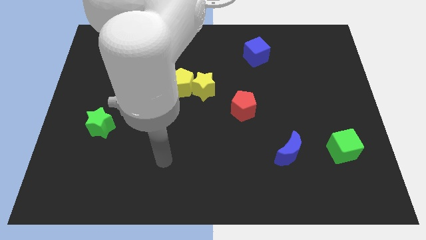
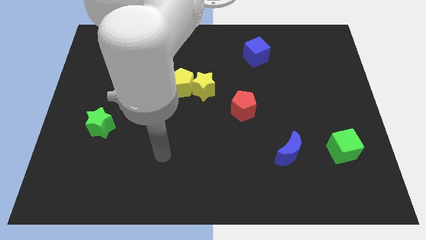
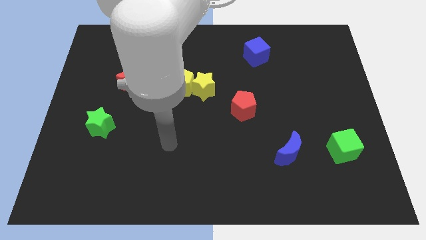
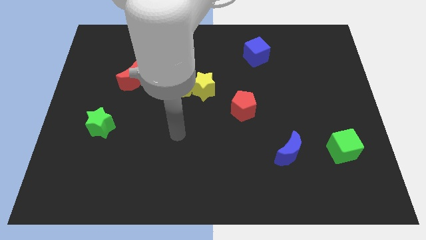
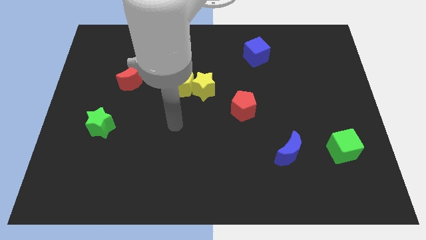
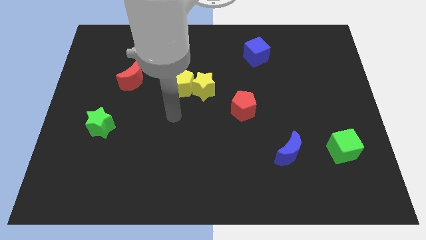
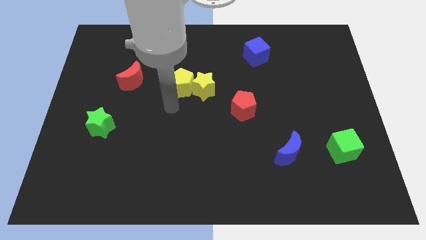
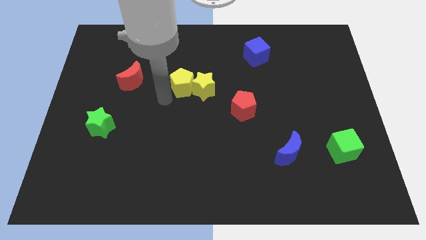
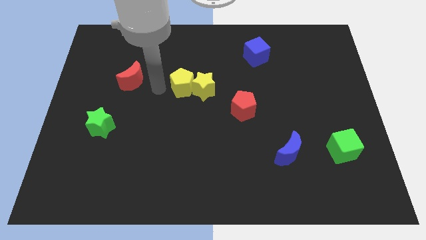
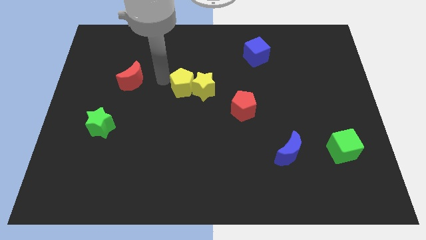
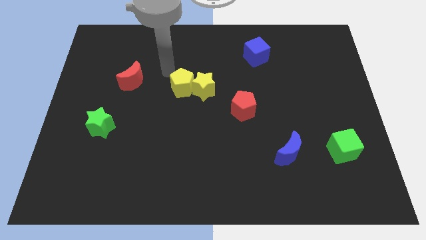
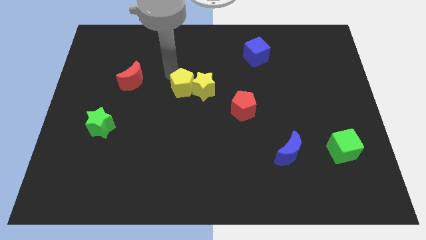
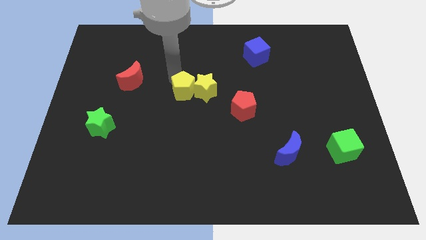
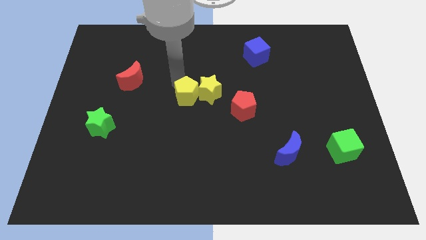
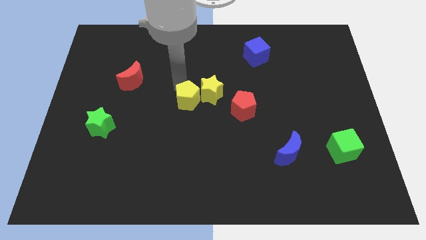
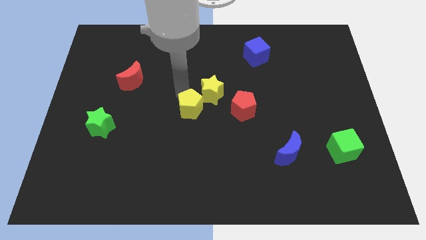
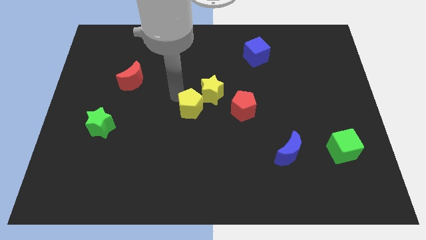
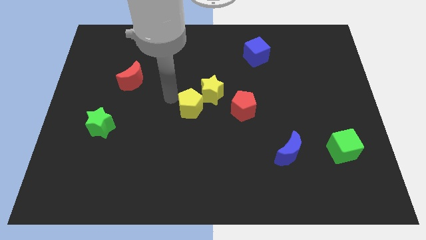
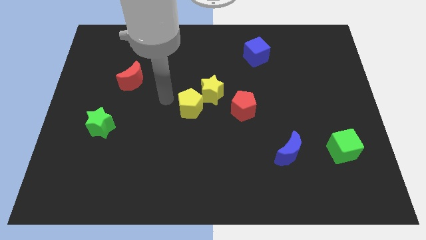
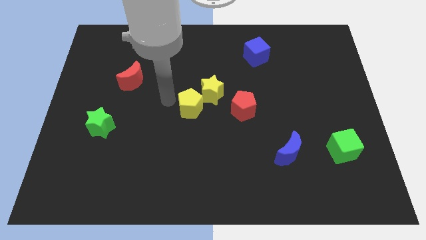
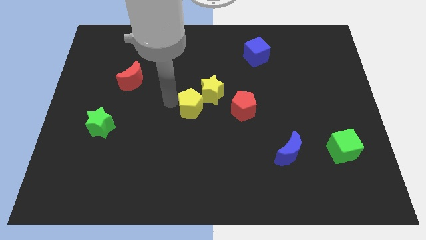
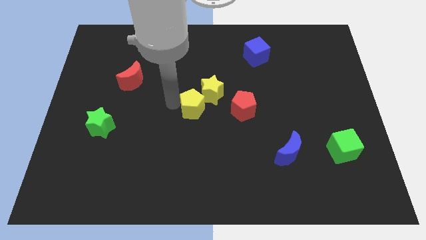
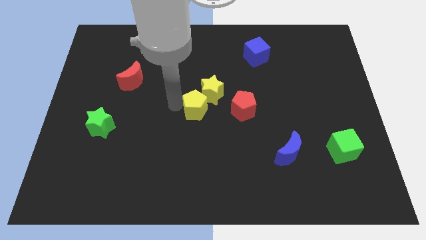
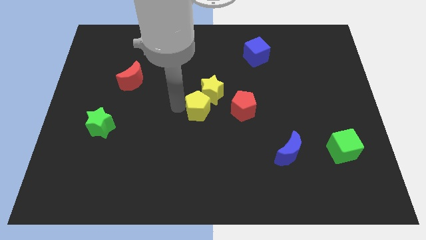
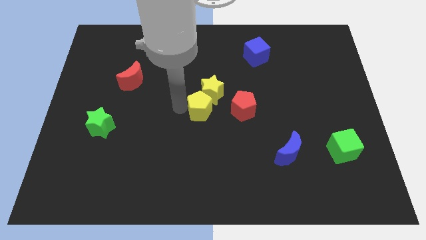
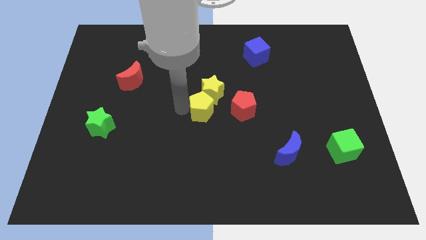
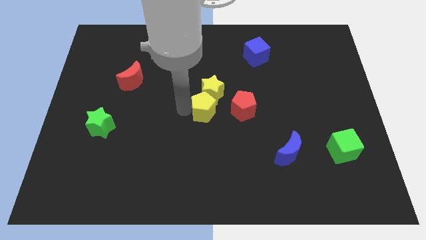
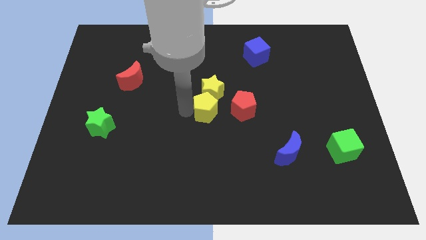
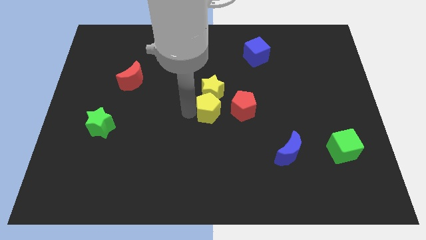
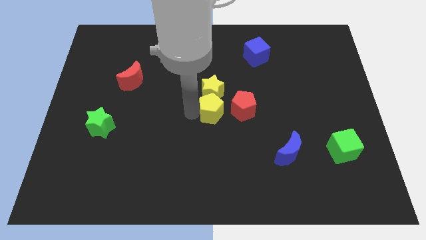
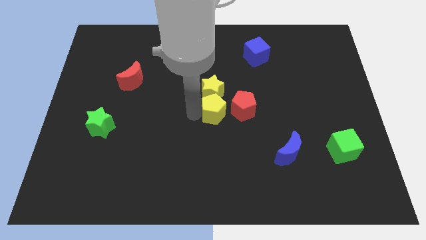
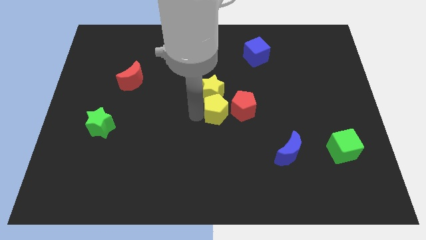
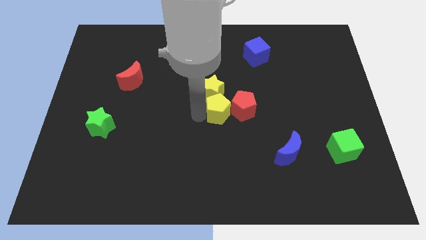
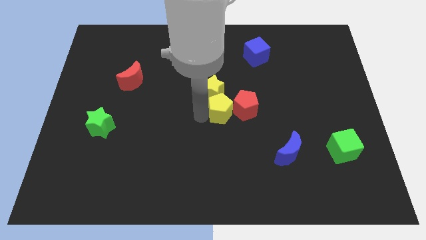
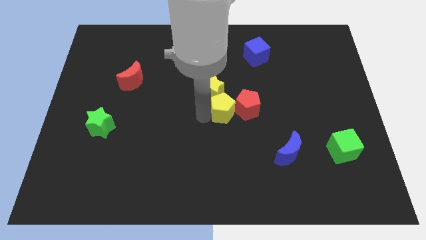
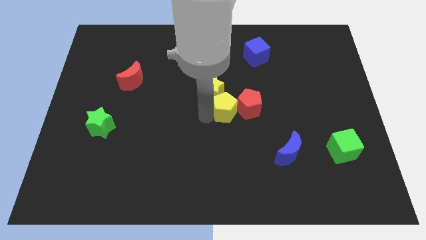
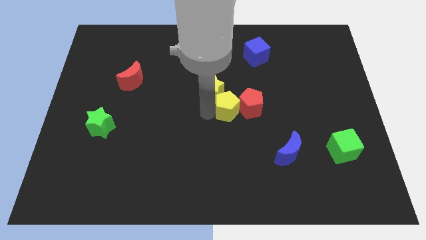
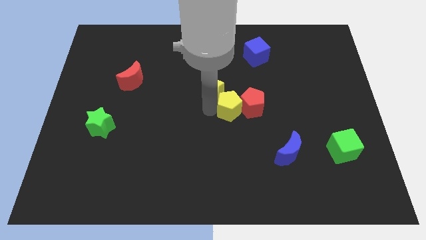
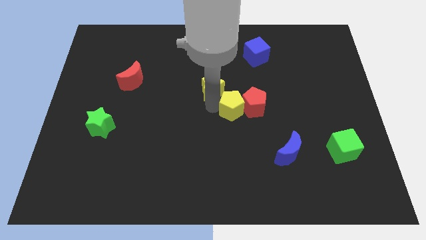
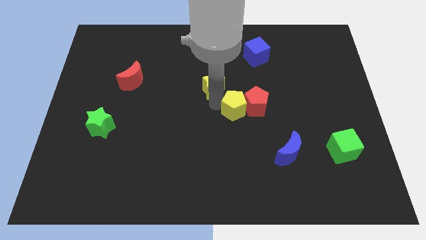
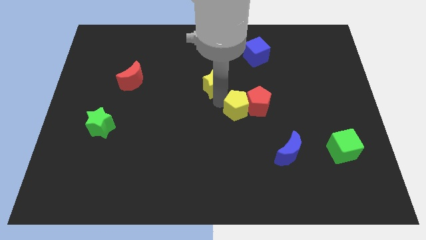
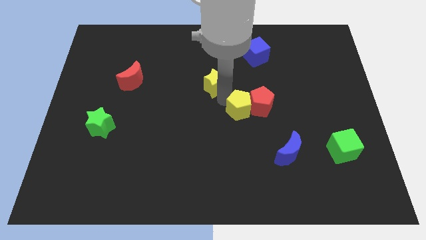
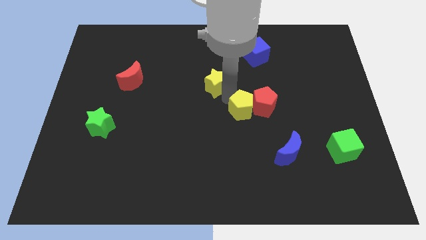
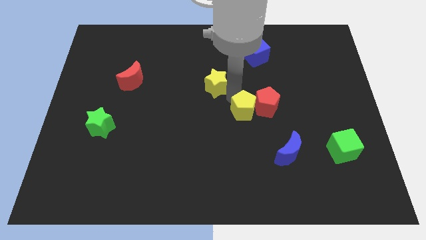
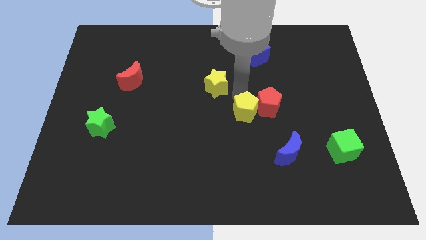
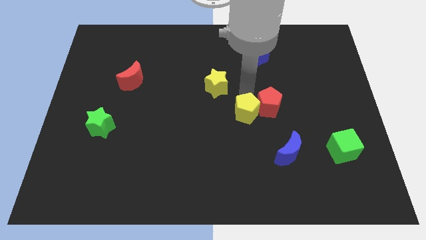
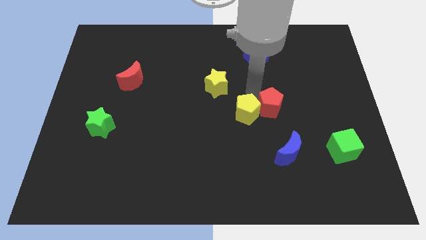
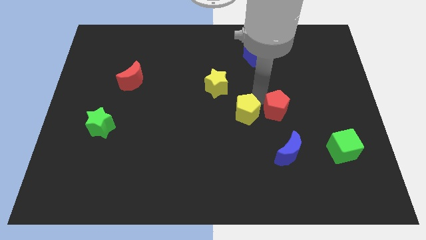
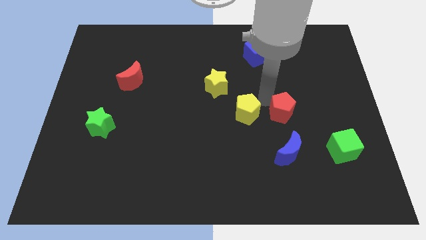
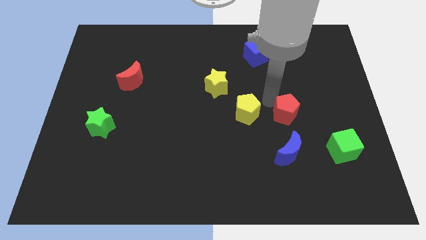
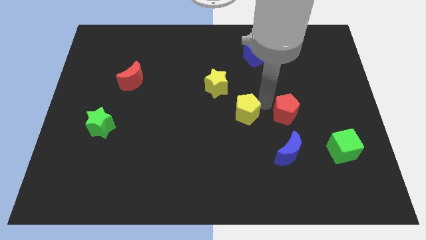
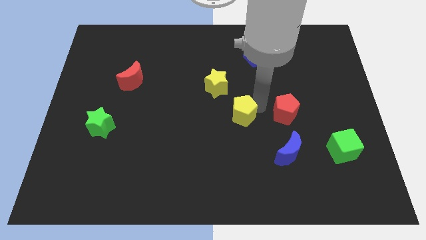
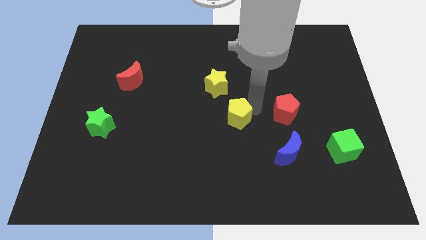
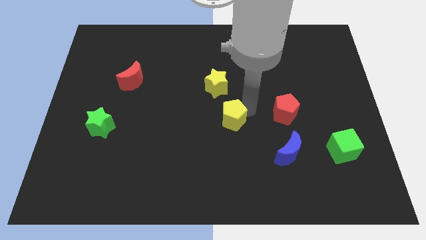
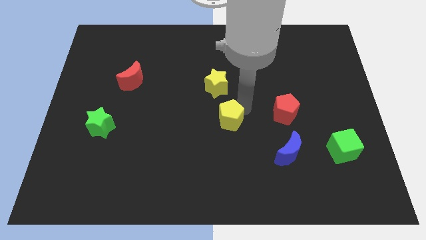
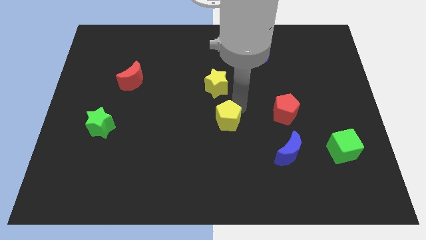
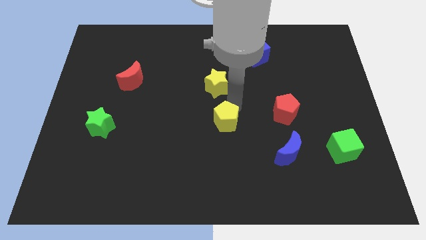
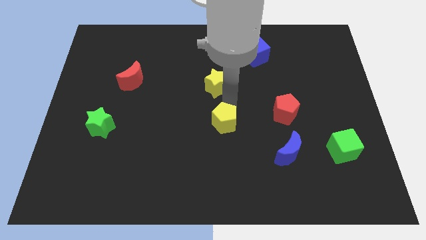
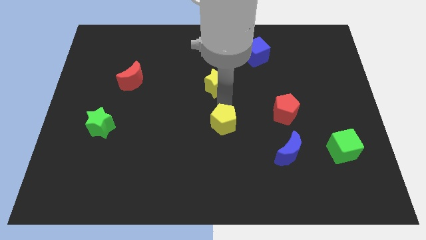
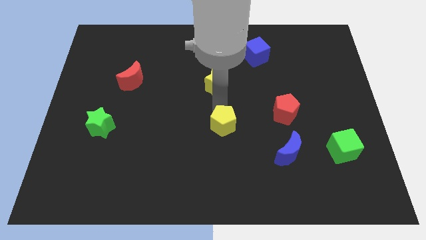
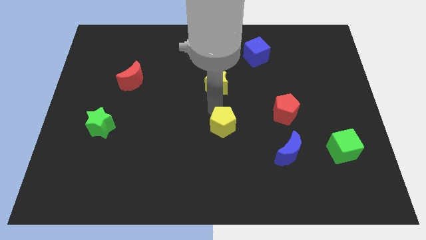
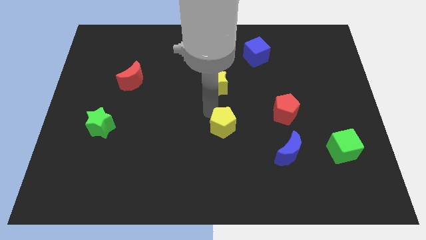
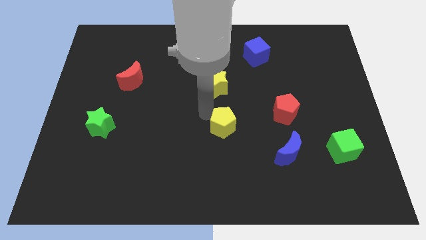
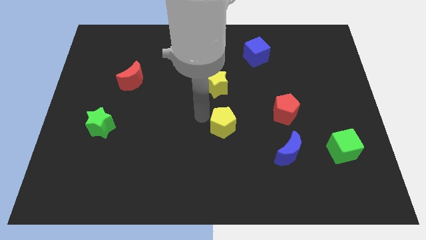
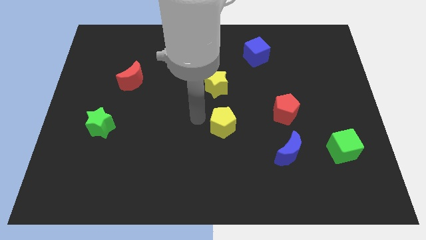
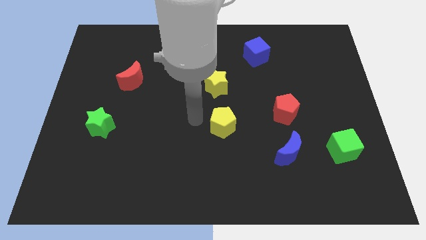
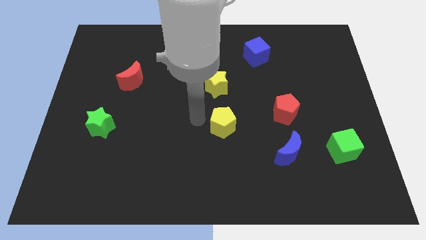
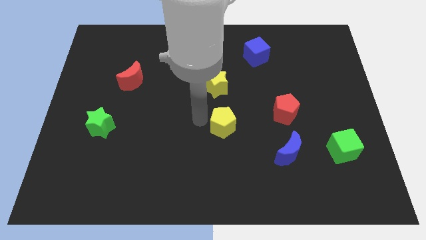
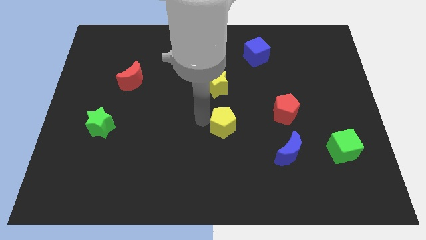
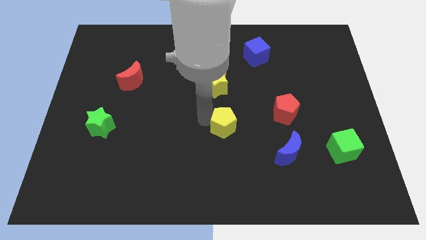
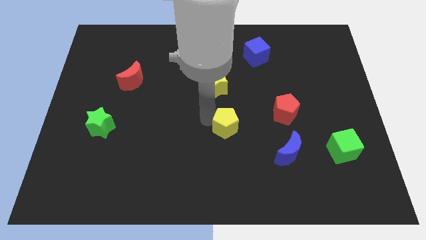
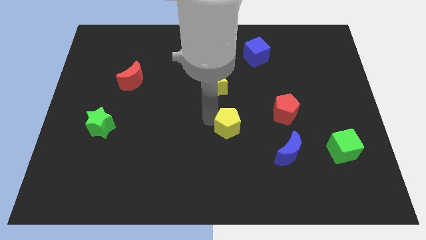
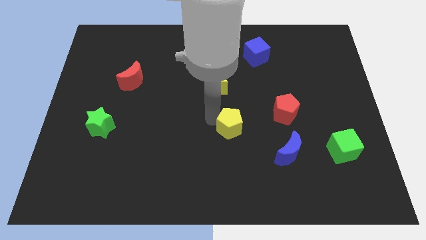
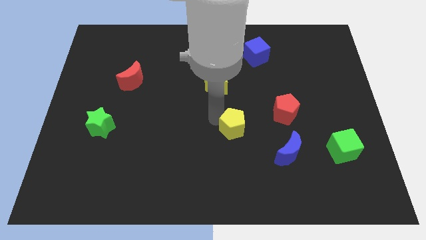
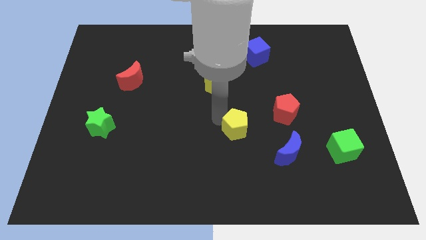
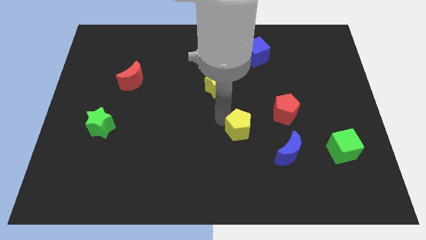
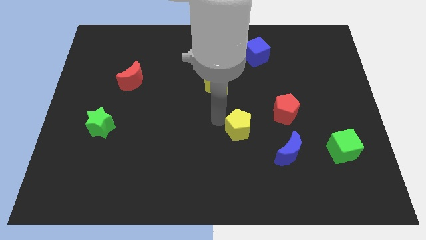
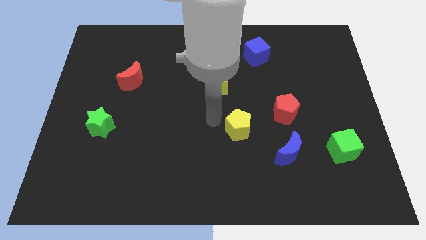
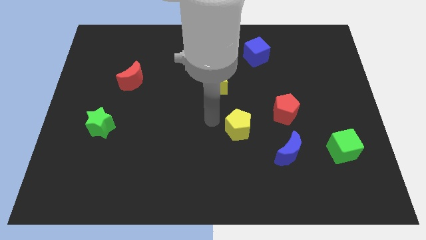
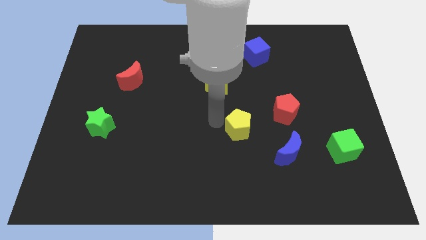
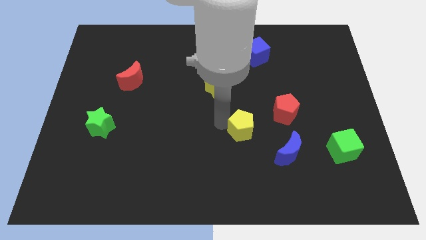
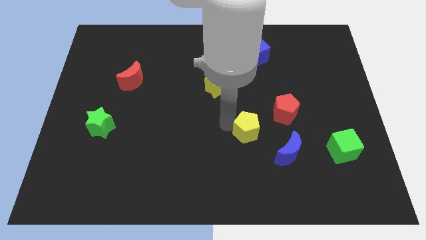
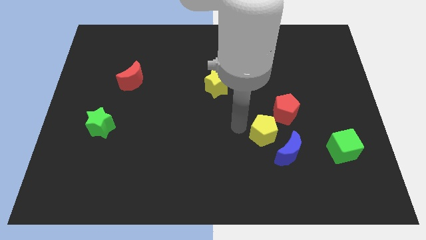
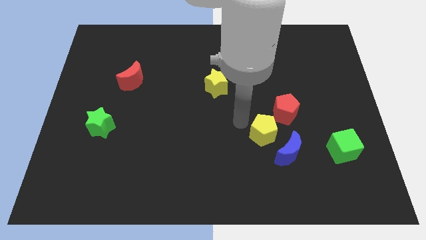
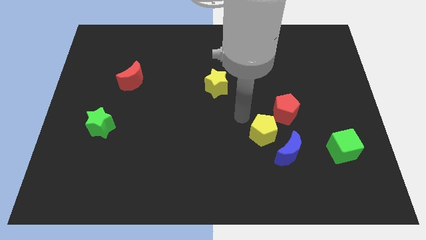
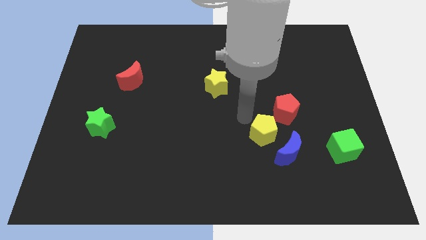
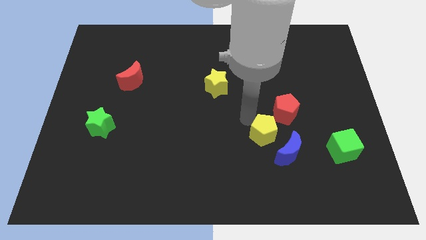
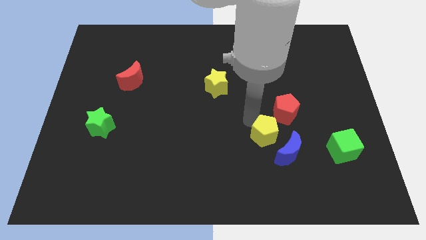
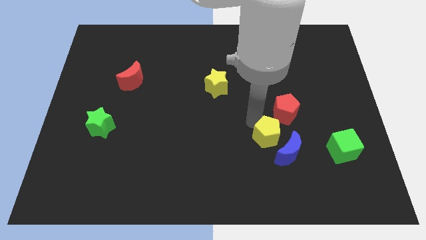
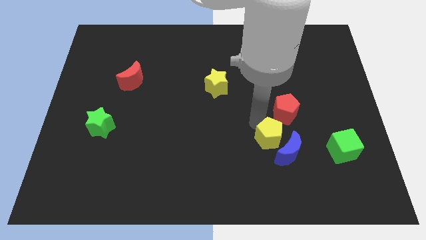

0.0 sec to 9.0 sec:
put the yellow pentagon close to the blue moon
